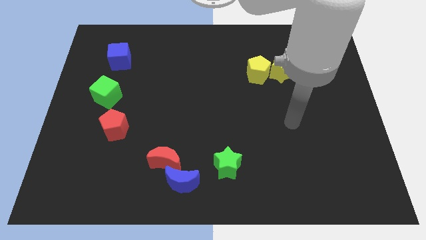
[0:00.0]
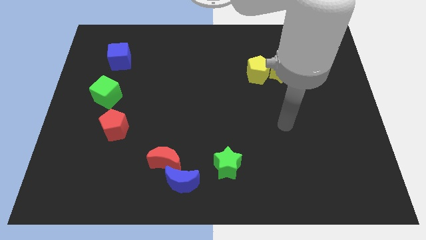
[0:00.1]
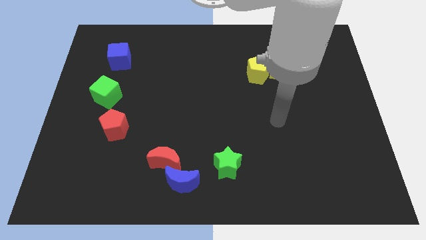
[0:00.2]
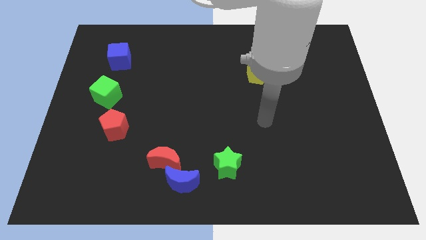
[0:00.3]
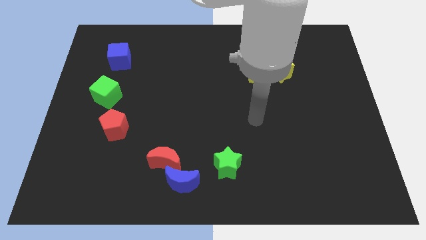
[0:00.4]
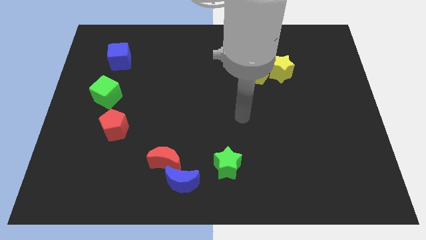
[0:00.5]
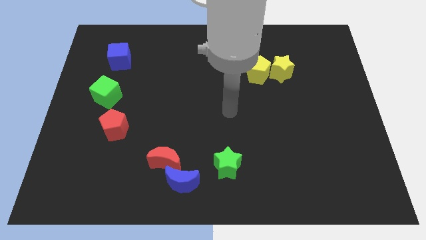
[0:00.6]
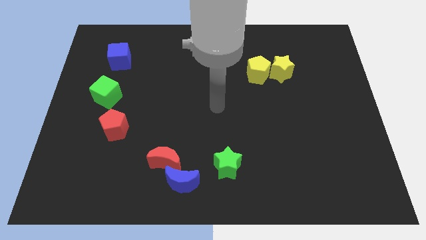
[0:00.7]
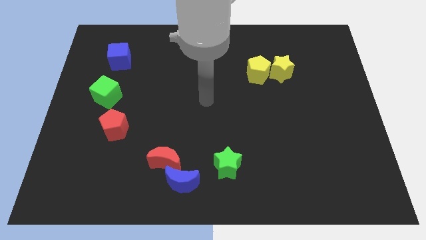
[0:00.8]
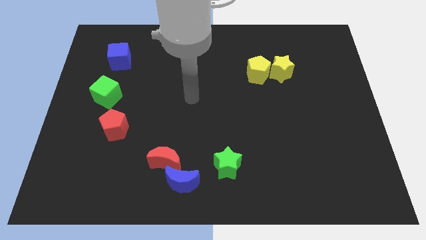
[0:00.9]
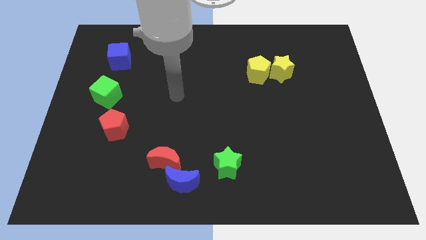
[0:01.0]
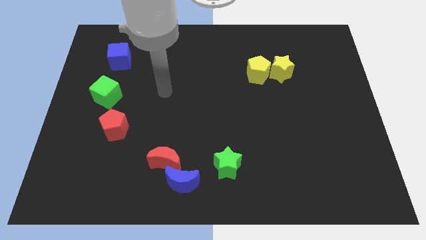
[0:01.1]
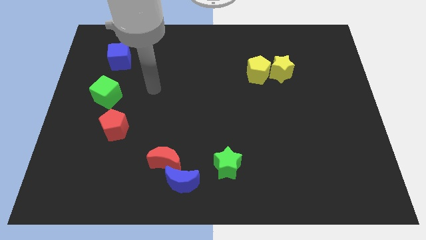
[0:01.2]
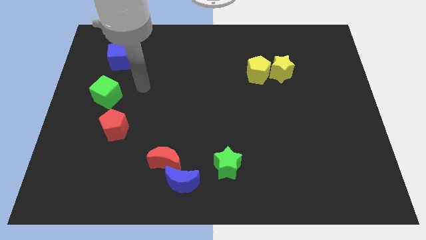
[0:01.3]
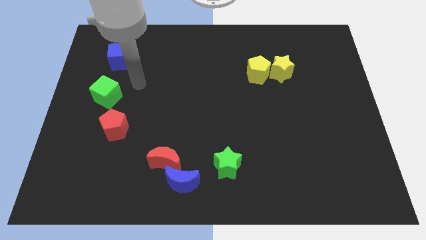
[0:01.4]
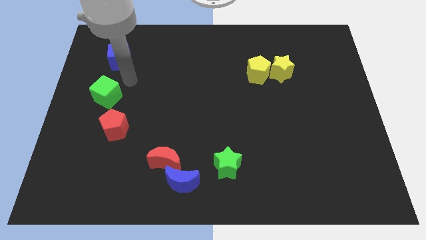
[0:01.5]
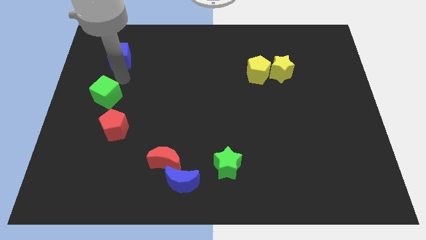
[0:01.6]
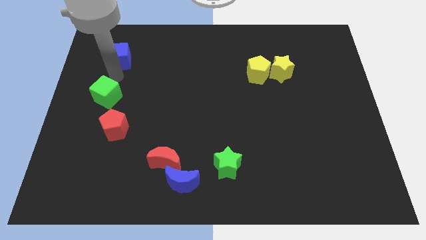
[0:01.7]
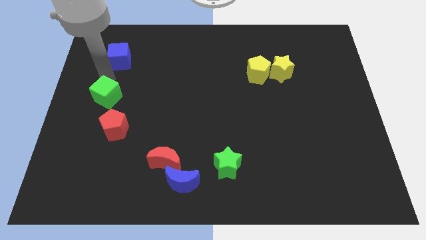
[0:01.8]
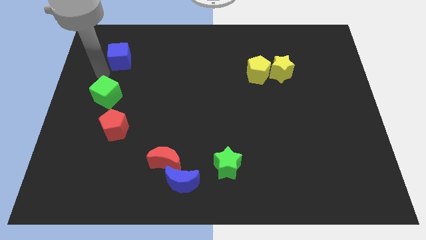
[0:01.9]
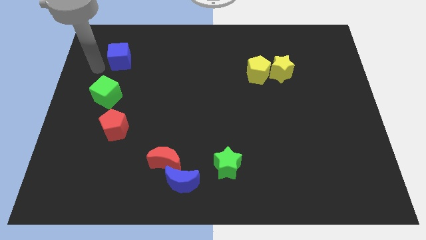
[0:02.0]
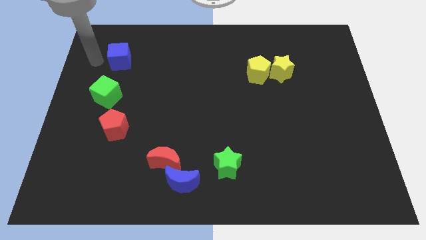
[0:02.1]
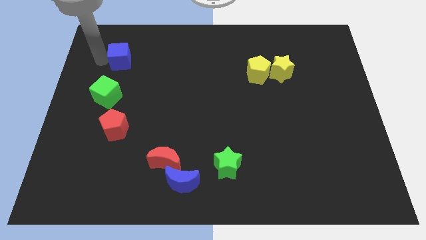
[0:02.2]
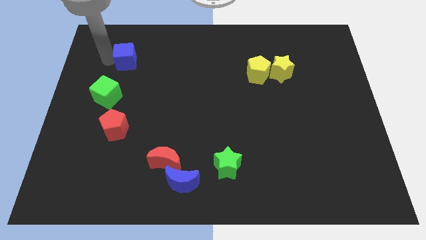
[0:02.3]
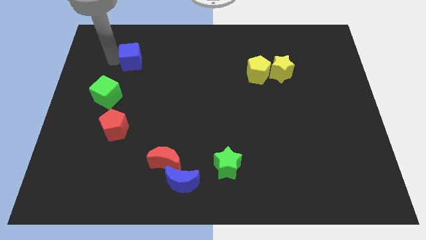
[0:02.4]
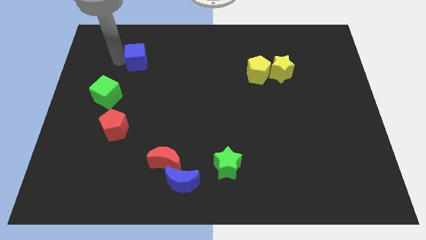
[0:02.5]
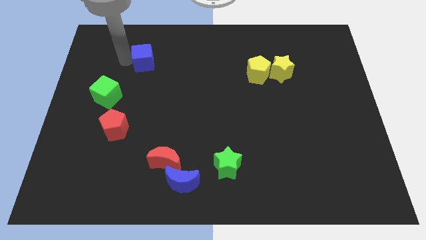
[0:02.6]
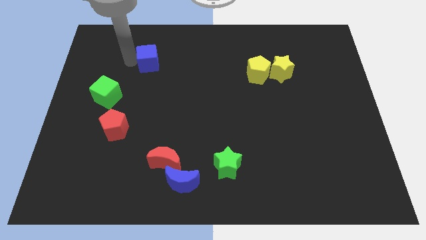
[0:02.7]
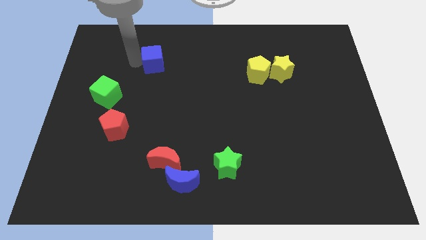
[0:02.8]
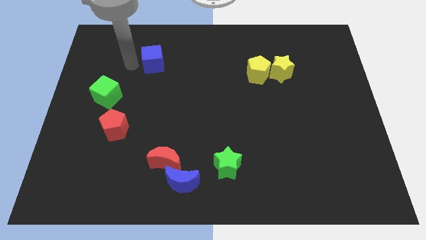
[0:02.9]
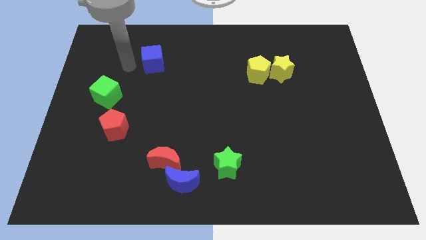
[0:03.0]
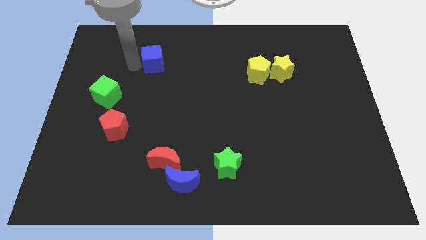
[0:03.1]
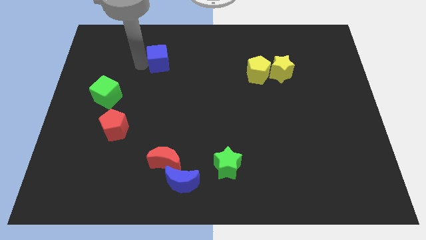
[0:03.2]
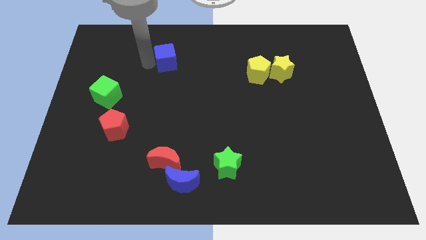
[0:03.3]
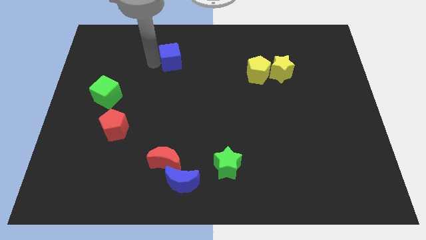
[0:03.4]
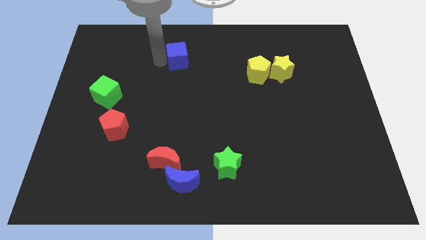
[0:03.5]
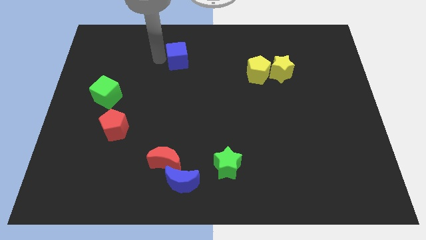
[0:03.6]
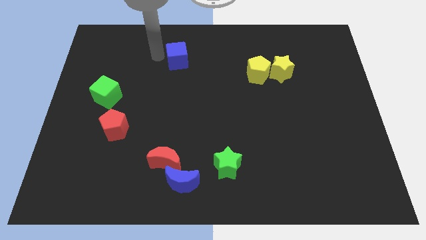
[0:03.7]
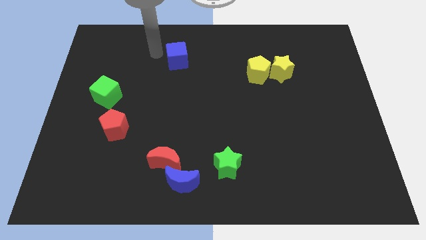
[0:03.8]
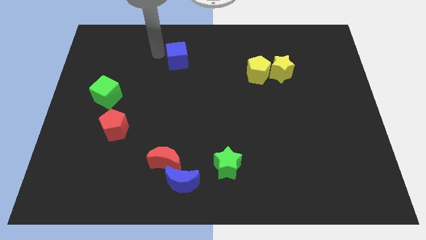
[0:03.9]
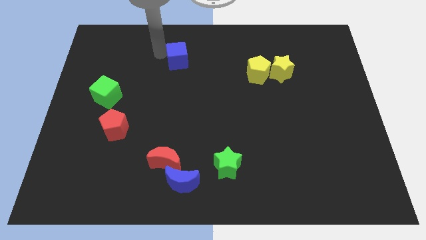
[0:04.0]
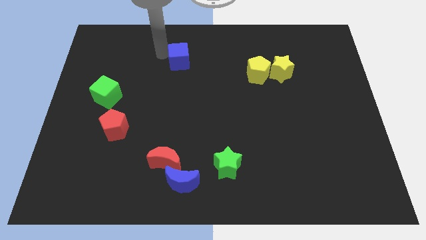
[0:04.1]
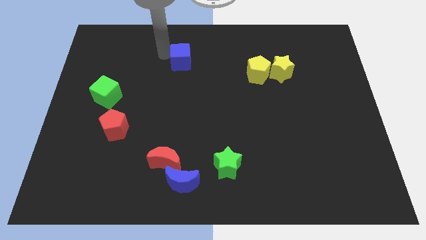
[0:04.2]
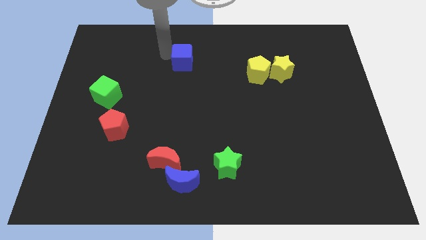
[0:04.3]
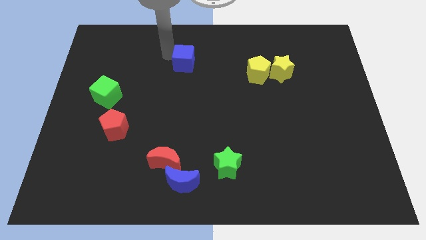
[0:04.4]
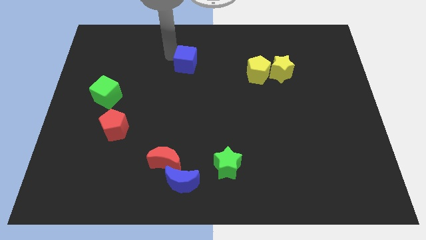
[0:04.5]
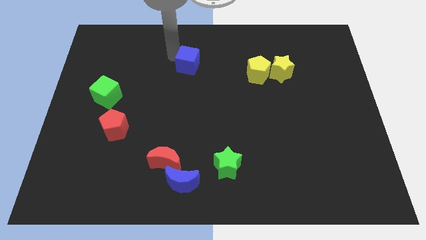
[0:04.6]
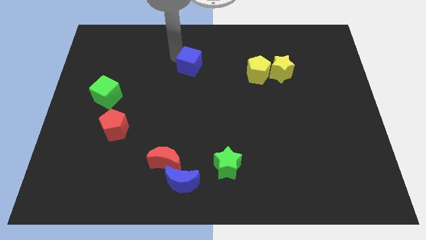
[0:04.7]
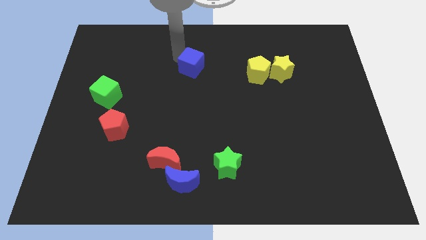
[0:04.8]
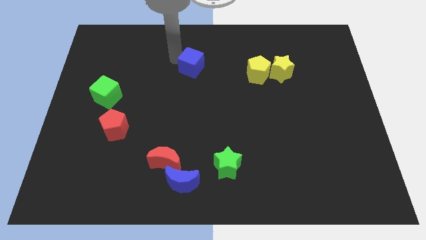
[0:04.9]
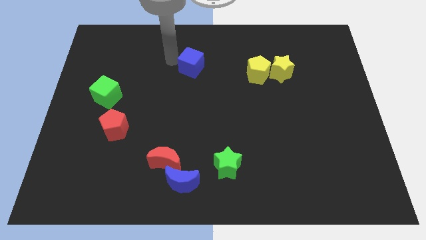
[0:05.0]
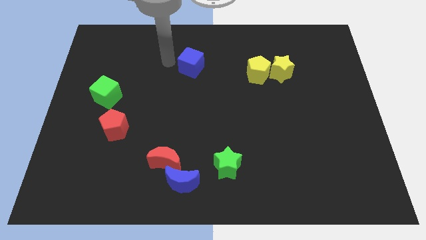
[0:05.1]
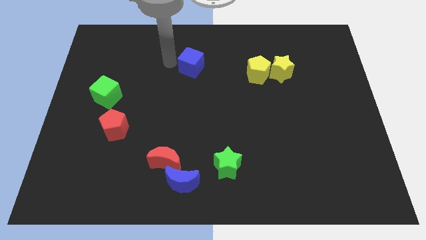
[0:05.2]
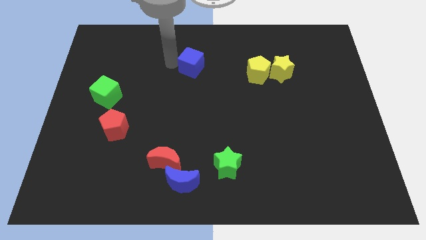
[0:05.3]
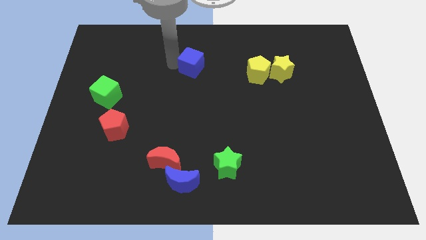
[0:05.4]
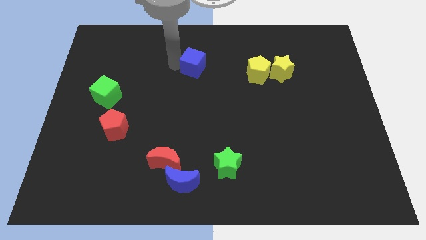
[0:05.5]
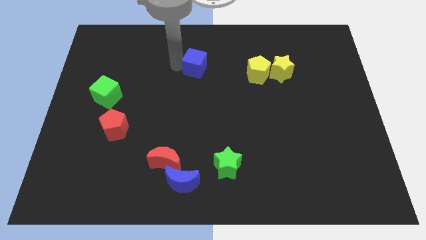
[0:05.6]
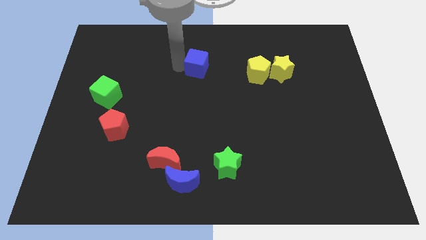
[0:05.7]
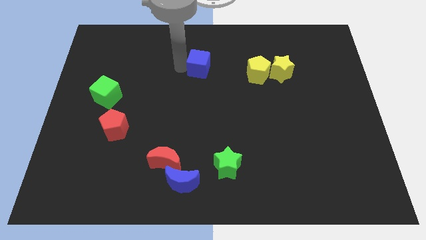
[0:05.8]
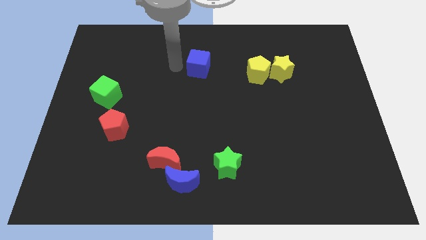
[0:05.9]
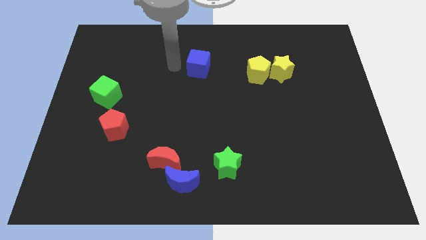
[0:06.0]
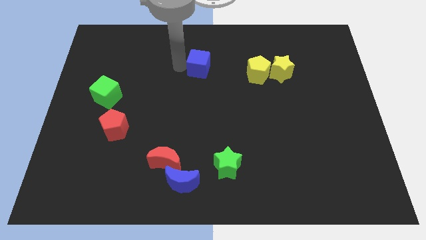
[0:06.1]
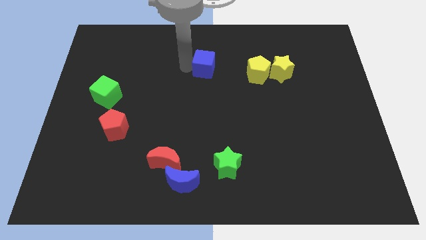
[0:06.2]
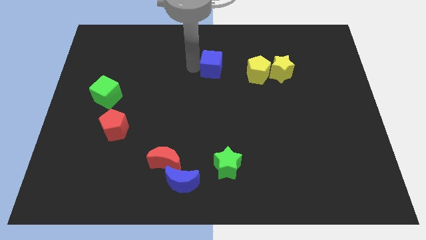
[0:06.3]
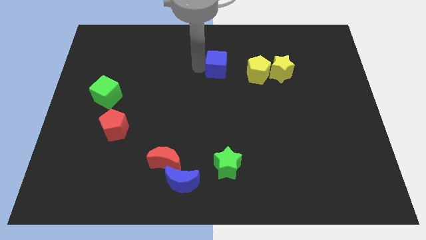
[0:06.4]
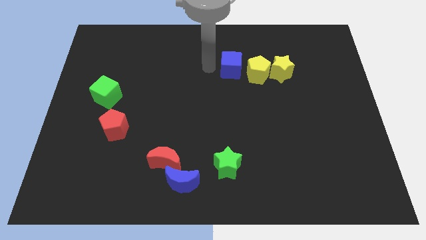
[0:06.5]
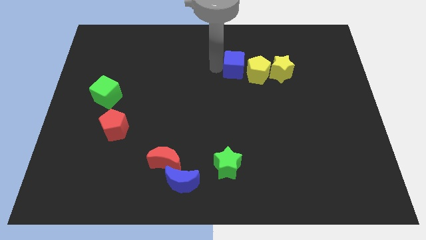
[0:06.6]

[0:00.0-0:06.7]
slide the blue cube next to the yellow pentagon
